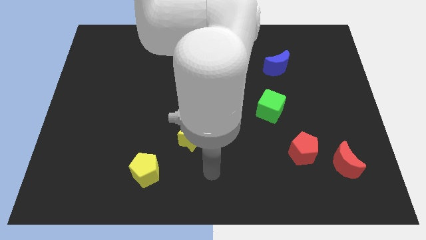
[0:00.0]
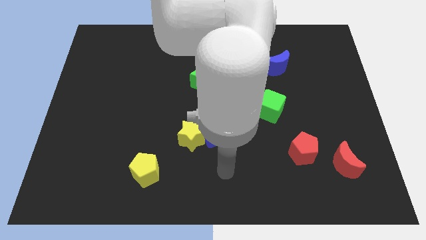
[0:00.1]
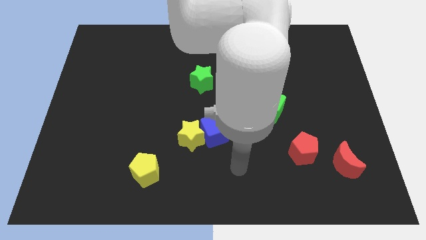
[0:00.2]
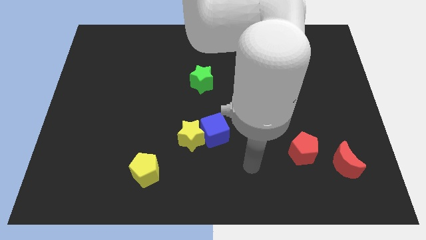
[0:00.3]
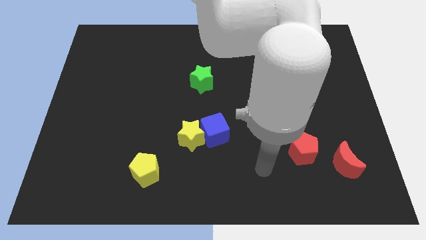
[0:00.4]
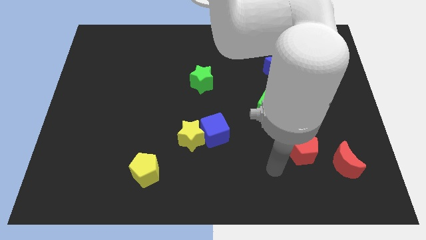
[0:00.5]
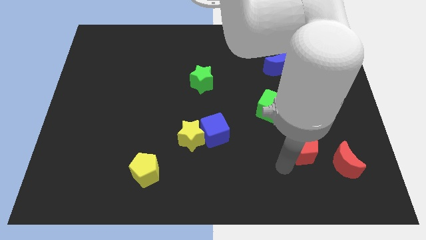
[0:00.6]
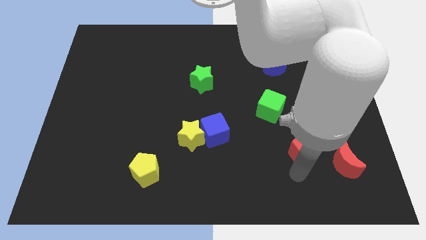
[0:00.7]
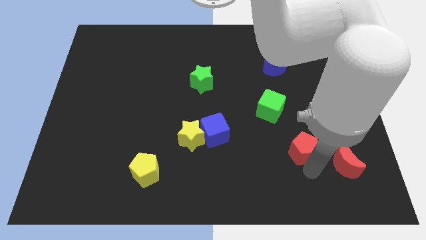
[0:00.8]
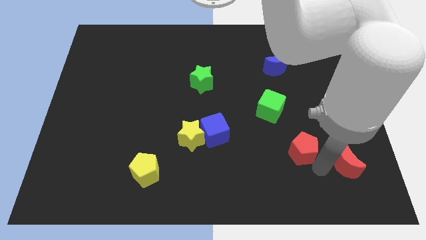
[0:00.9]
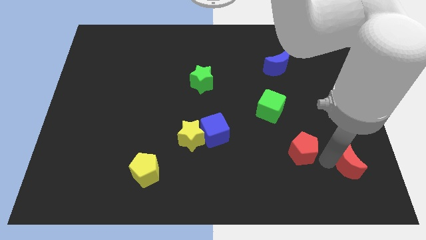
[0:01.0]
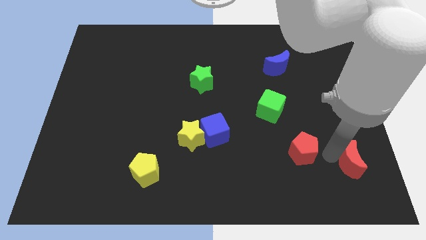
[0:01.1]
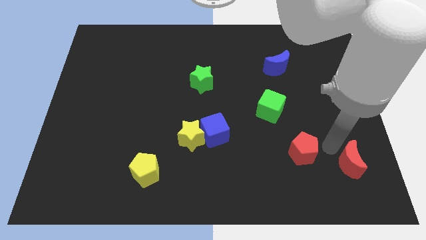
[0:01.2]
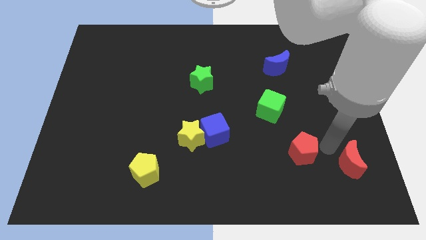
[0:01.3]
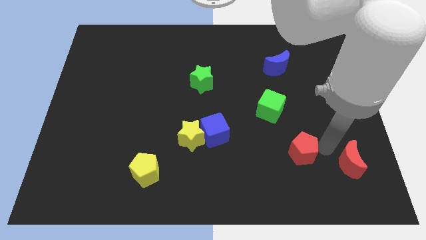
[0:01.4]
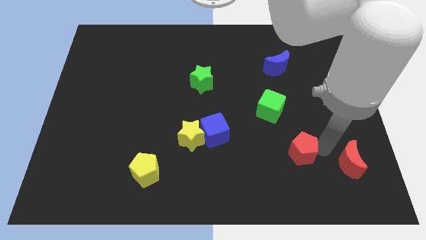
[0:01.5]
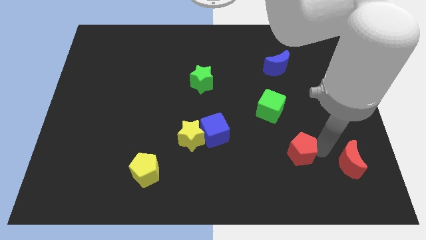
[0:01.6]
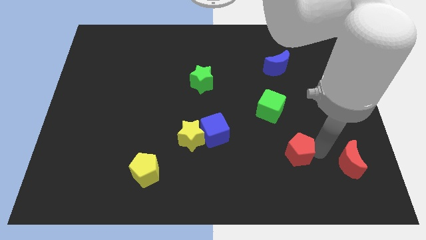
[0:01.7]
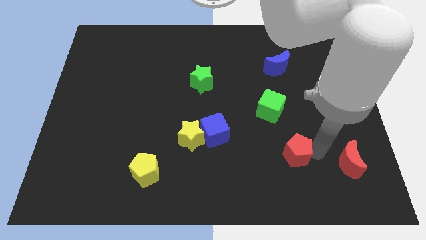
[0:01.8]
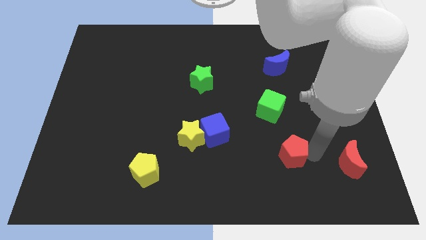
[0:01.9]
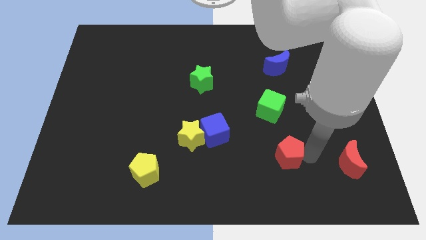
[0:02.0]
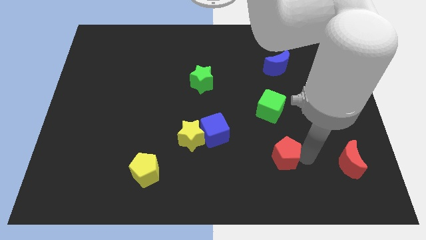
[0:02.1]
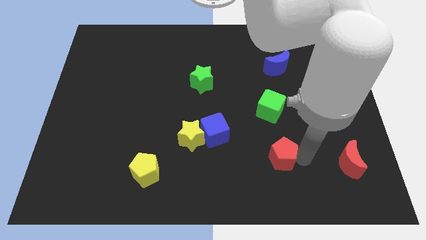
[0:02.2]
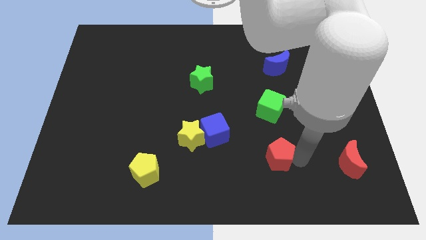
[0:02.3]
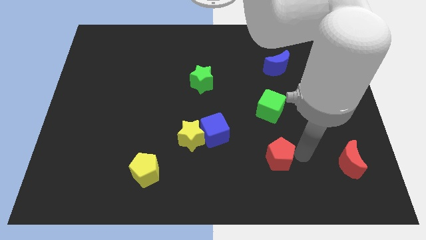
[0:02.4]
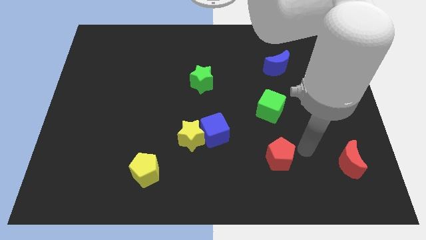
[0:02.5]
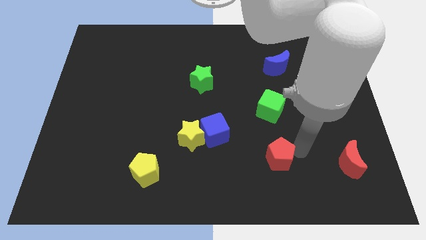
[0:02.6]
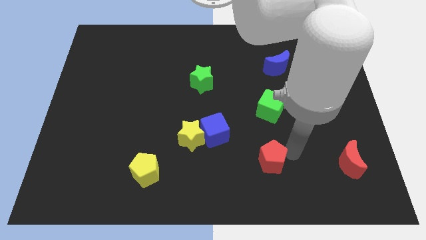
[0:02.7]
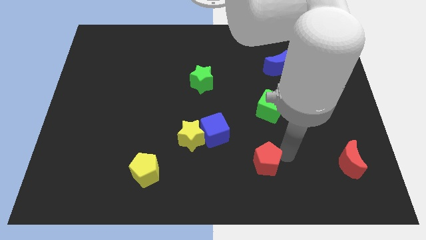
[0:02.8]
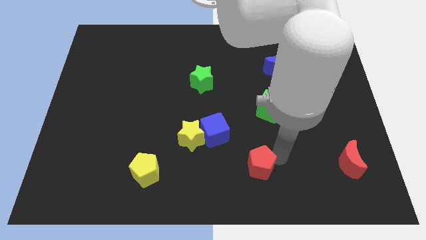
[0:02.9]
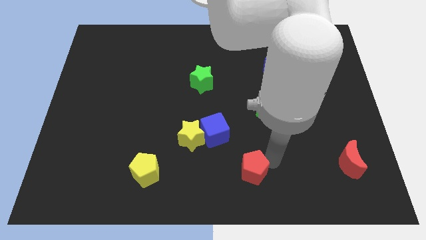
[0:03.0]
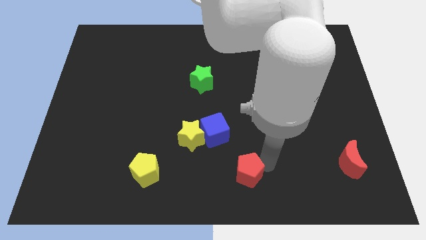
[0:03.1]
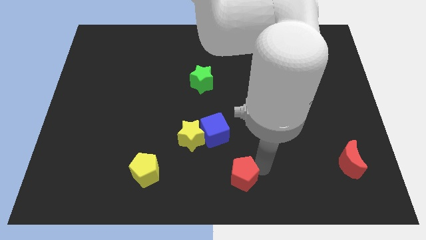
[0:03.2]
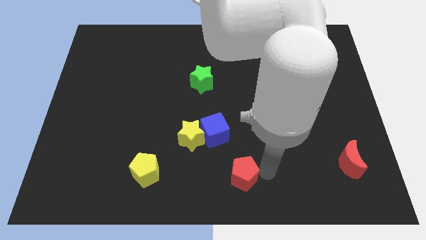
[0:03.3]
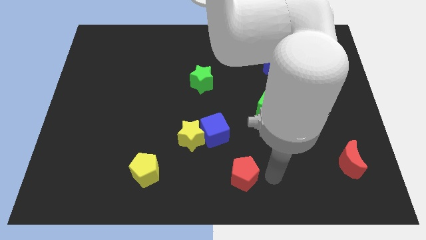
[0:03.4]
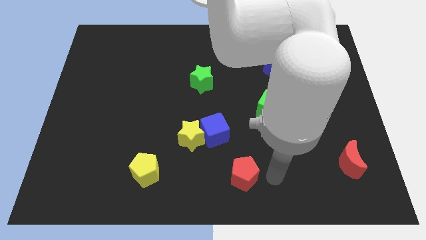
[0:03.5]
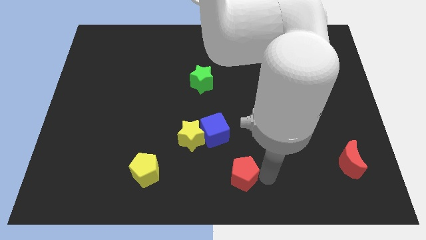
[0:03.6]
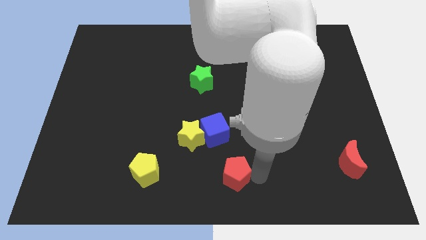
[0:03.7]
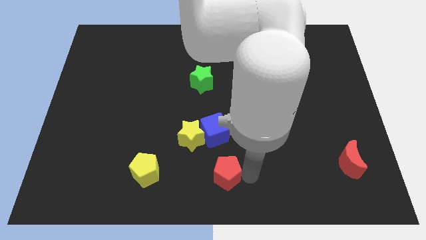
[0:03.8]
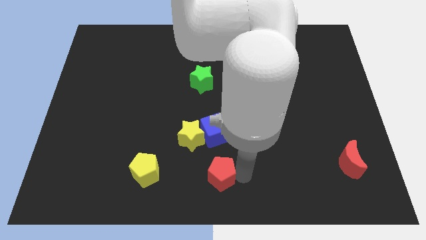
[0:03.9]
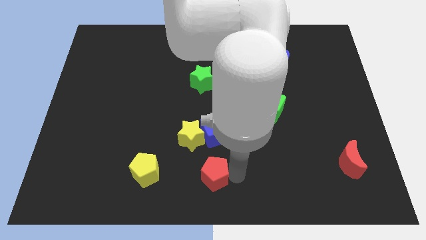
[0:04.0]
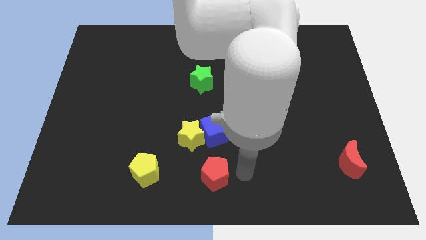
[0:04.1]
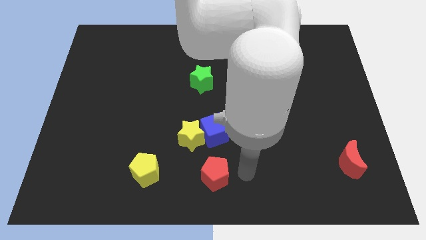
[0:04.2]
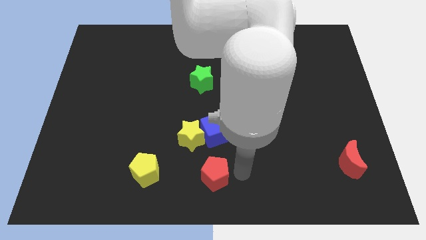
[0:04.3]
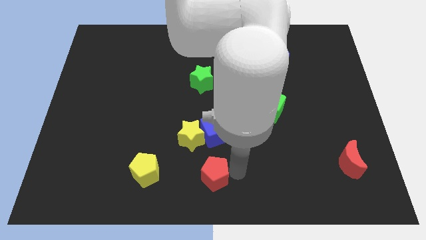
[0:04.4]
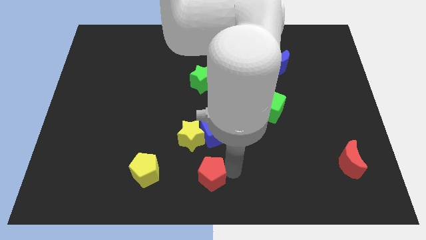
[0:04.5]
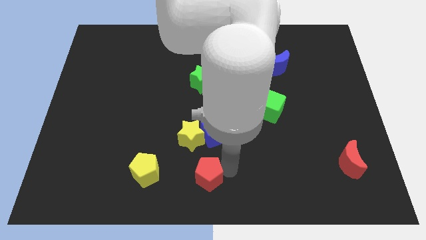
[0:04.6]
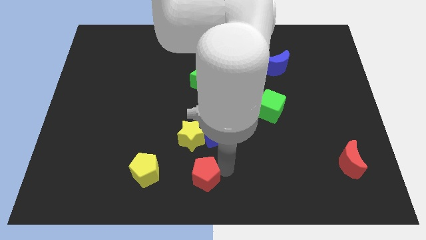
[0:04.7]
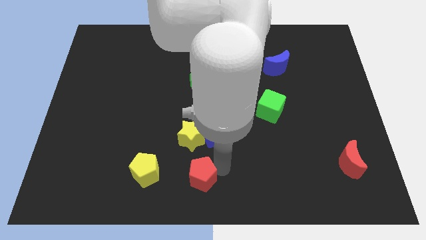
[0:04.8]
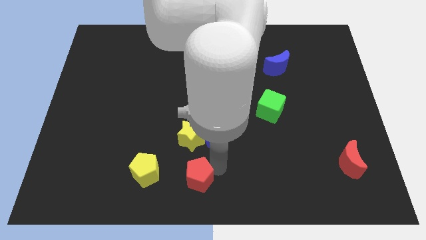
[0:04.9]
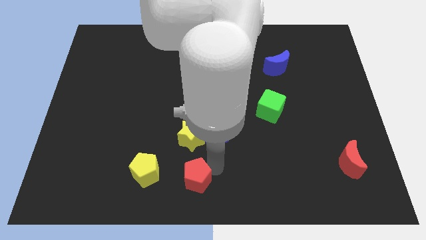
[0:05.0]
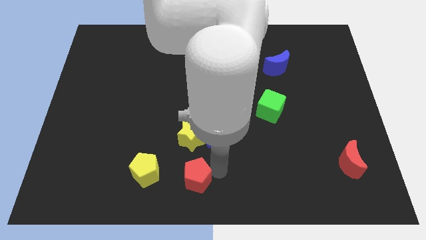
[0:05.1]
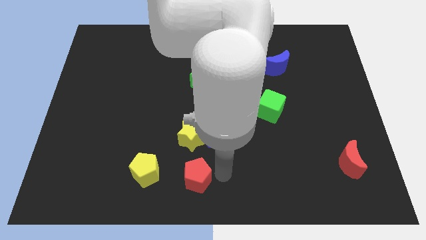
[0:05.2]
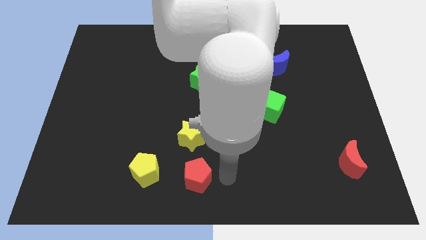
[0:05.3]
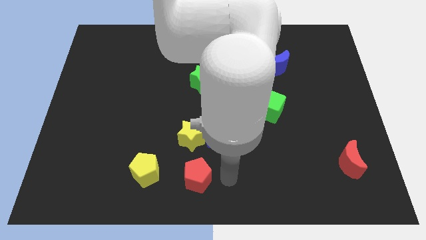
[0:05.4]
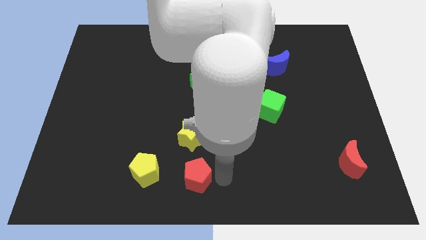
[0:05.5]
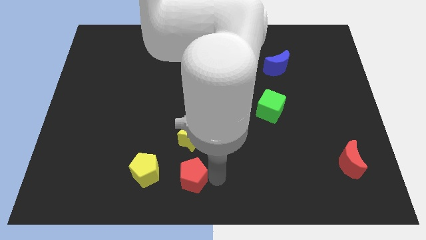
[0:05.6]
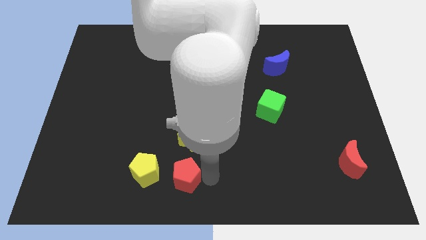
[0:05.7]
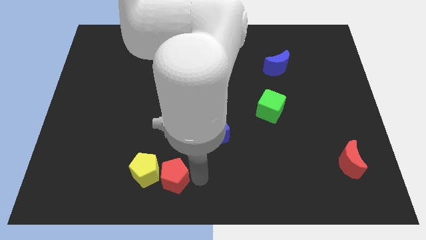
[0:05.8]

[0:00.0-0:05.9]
slide the red pentagon towards the yellow pentagon

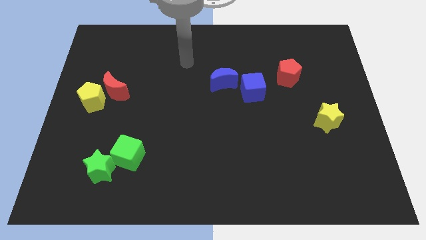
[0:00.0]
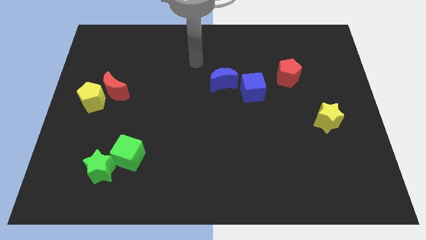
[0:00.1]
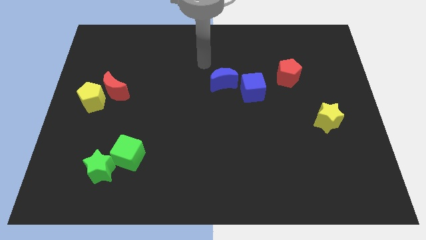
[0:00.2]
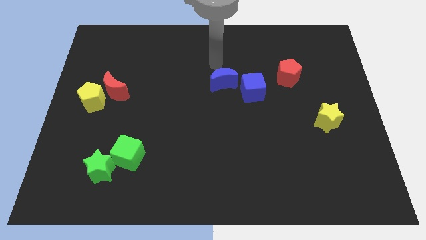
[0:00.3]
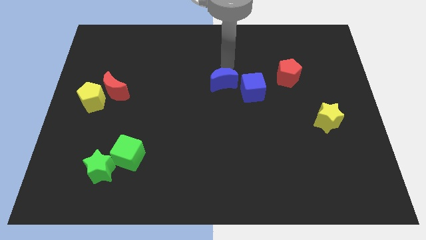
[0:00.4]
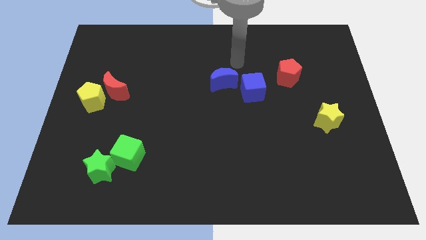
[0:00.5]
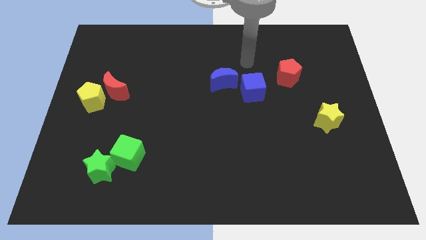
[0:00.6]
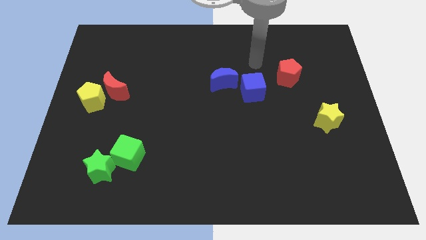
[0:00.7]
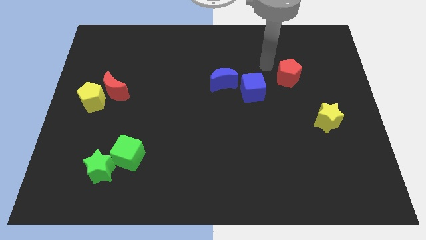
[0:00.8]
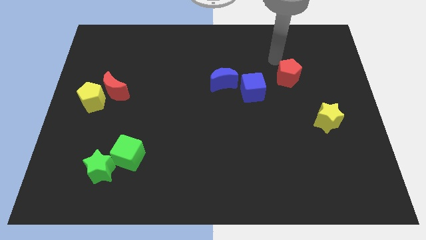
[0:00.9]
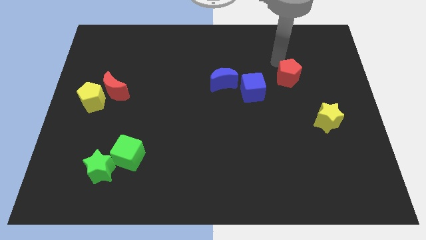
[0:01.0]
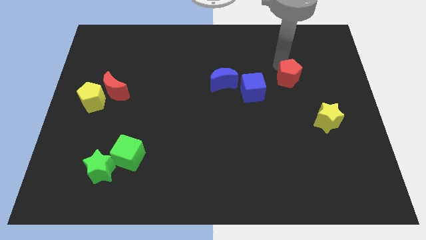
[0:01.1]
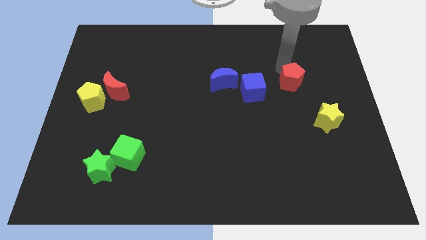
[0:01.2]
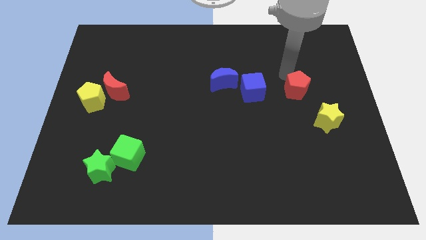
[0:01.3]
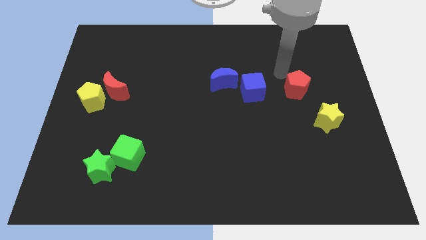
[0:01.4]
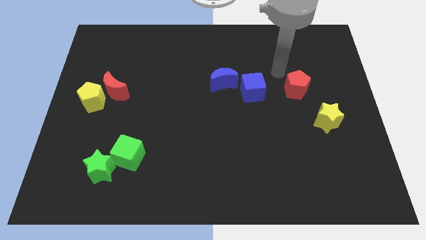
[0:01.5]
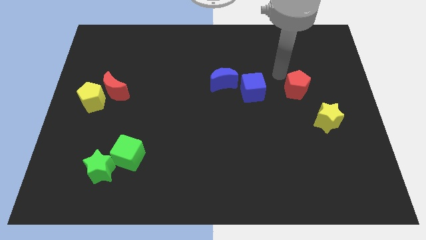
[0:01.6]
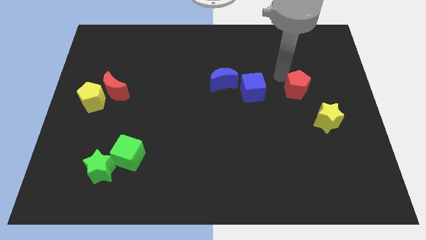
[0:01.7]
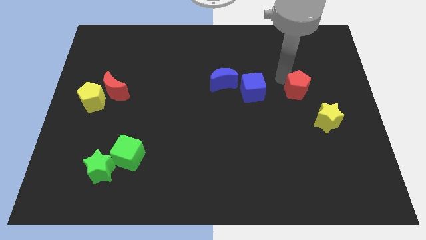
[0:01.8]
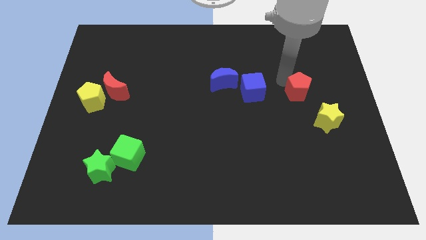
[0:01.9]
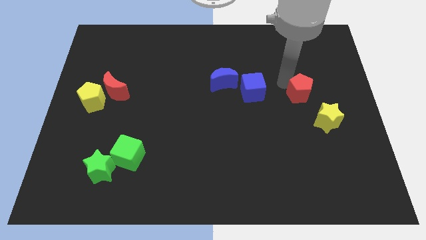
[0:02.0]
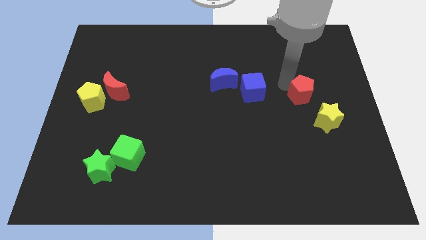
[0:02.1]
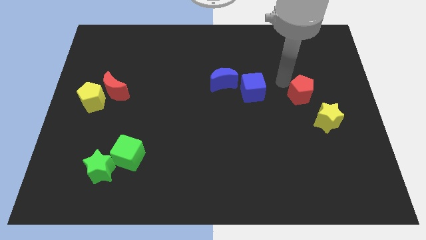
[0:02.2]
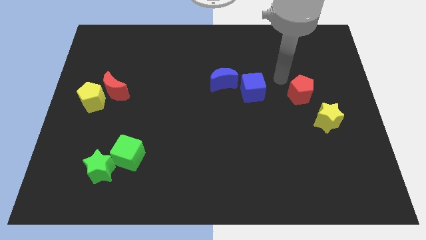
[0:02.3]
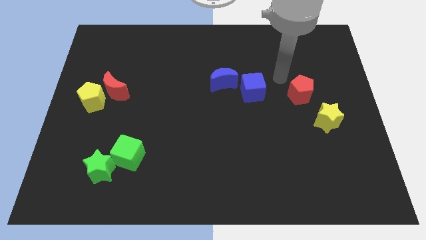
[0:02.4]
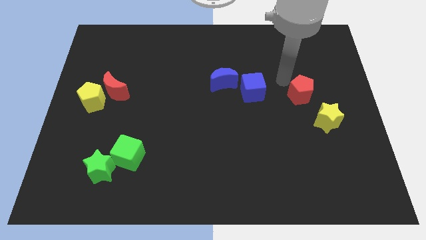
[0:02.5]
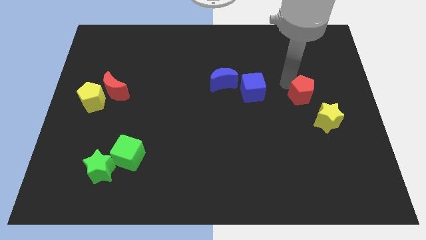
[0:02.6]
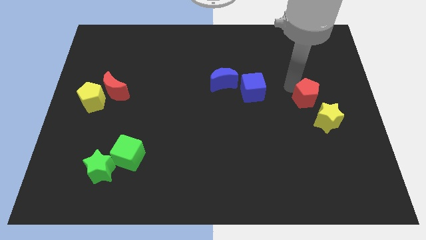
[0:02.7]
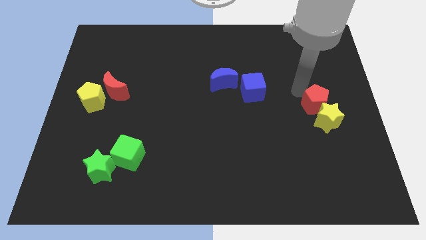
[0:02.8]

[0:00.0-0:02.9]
move the red pentagon to the yellow star
